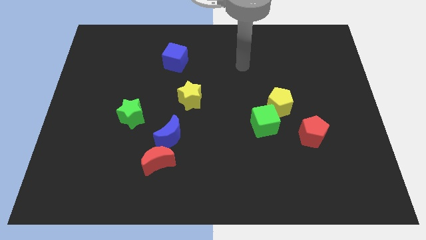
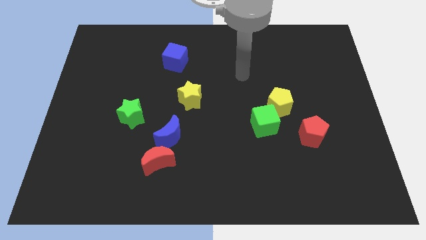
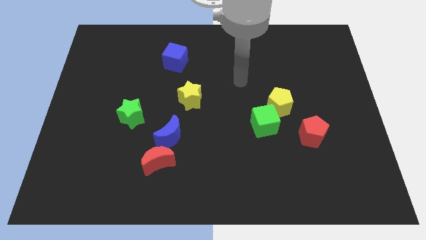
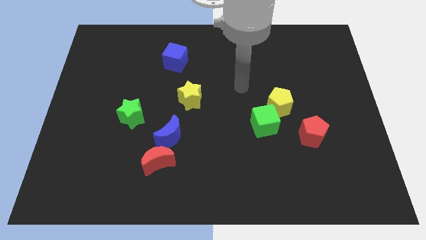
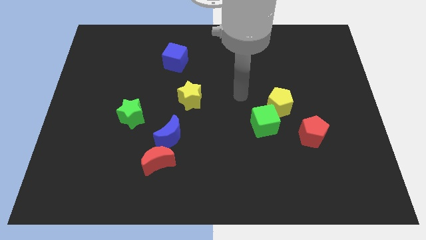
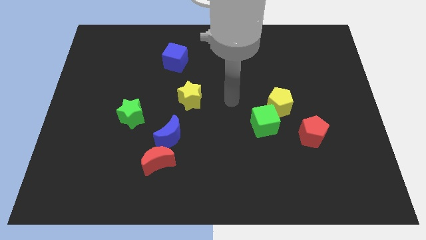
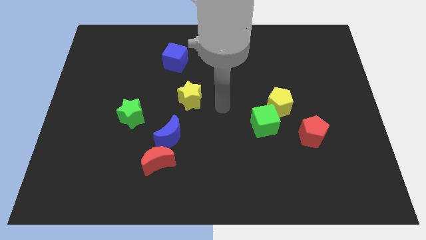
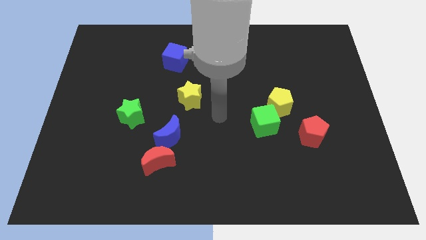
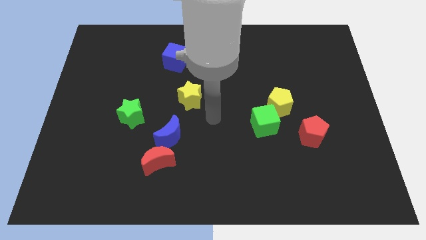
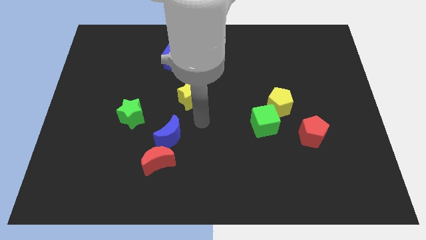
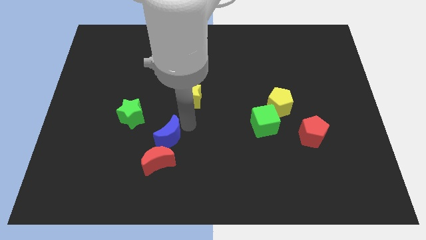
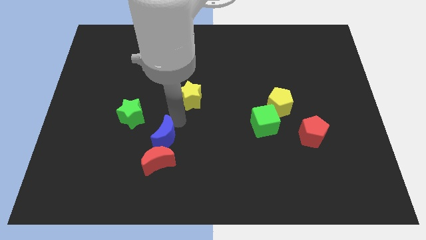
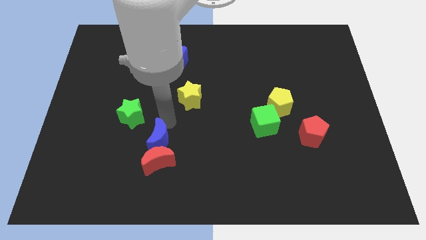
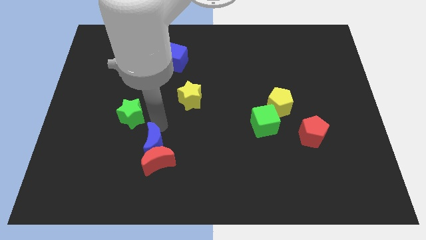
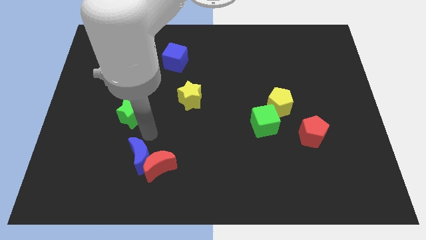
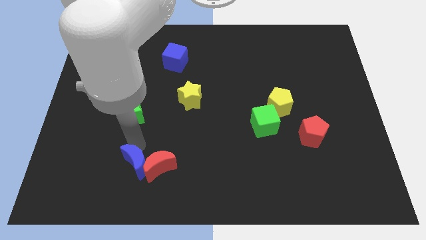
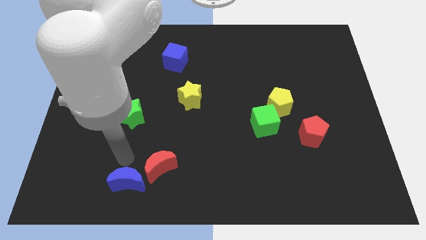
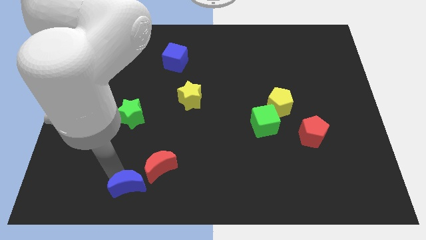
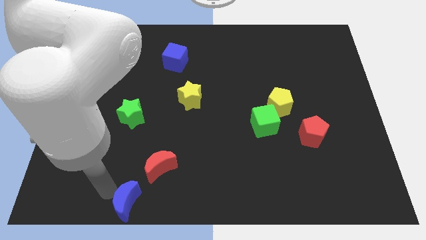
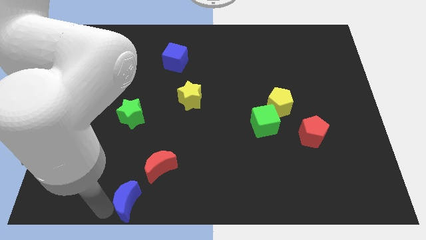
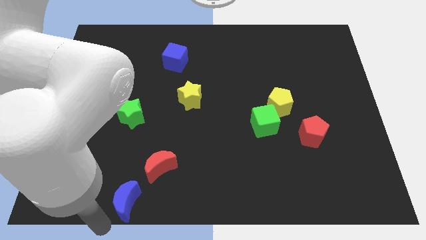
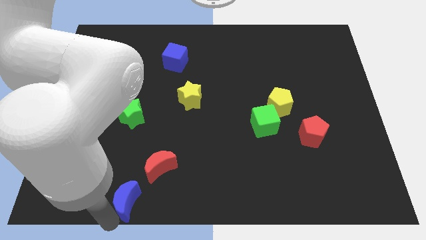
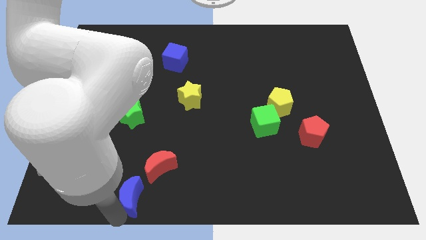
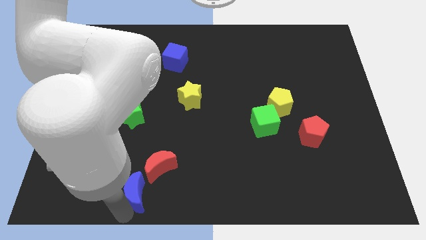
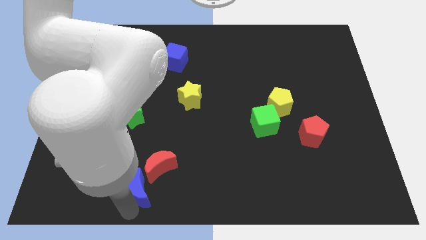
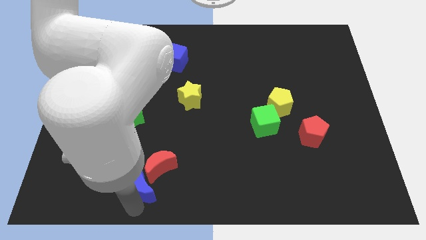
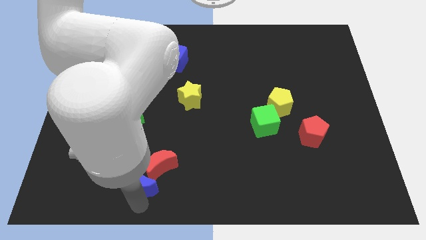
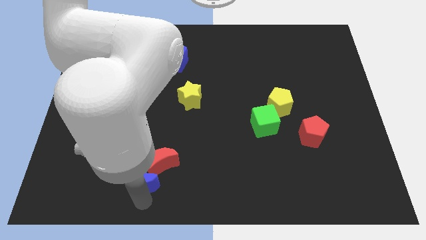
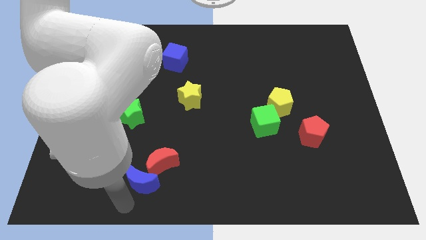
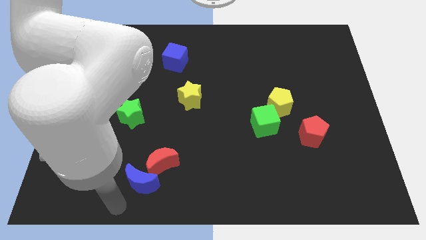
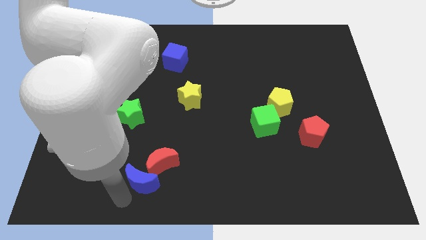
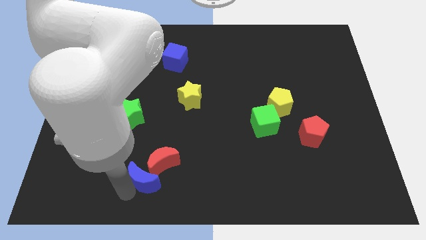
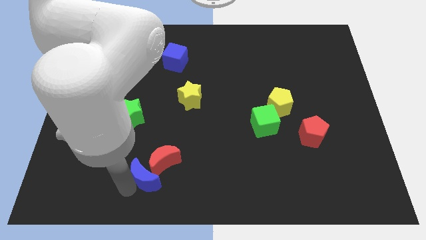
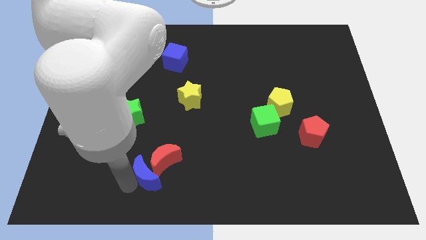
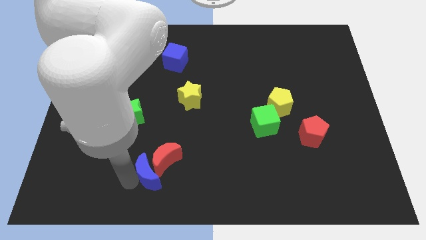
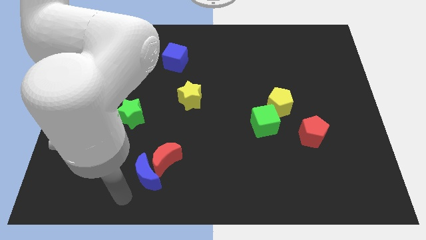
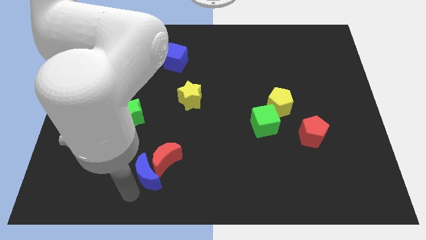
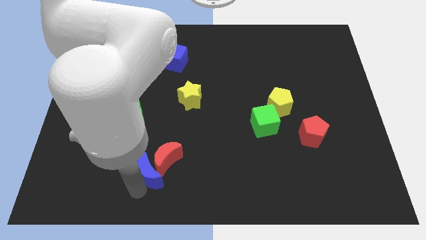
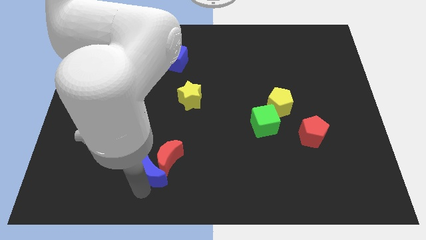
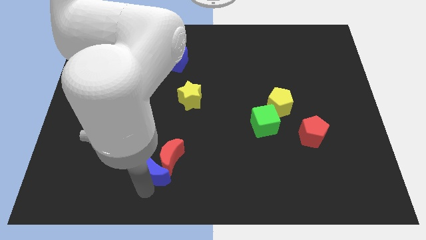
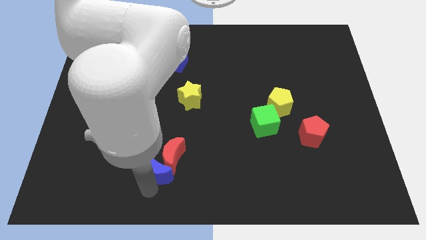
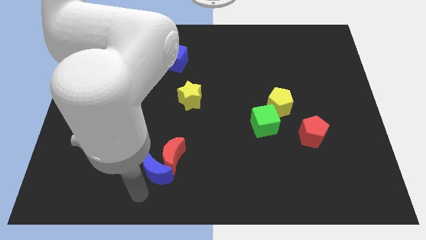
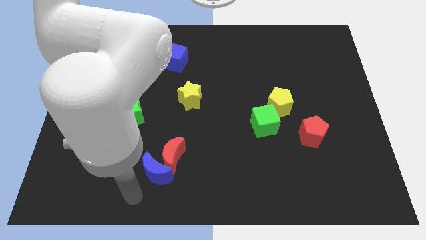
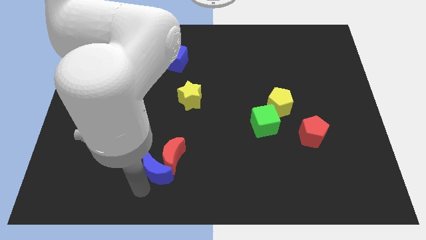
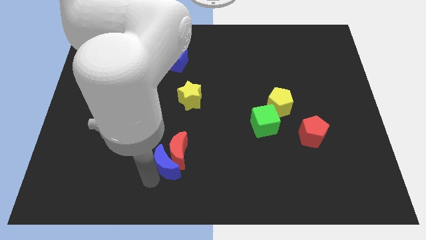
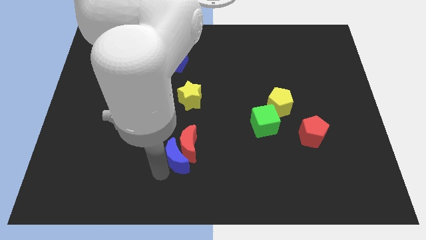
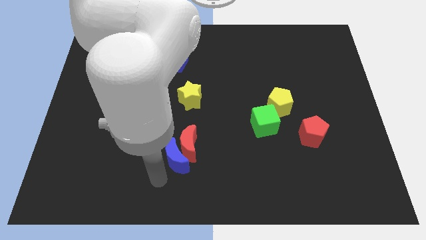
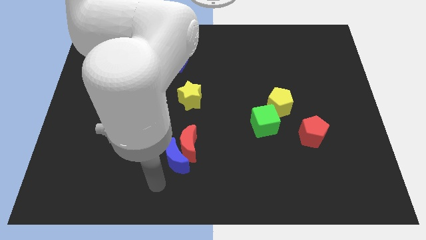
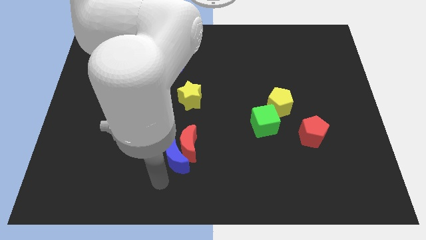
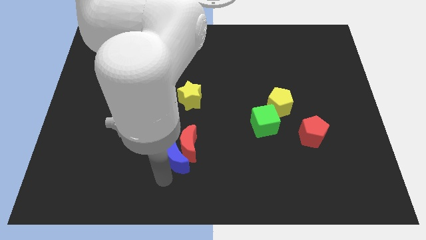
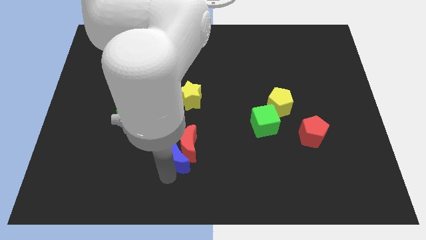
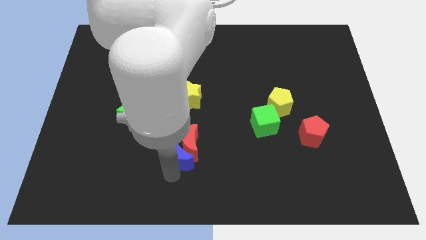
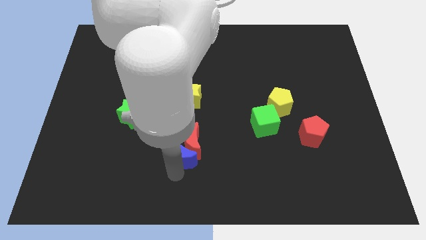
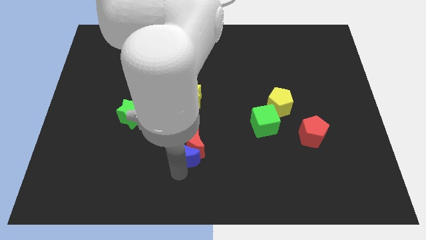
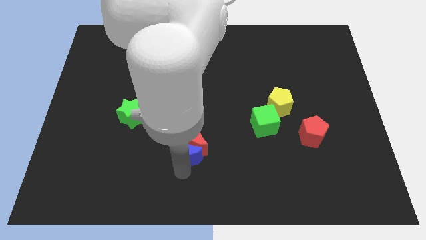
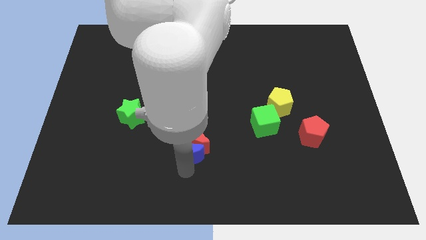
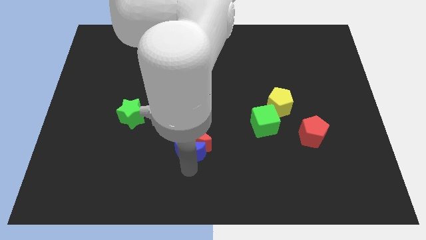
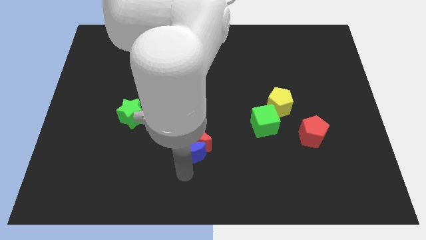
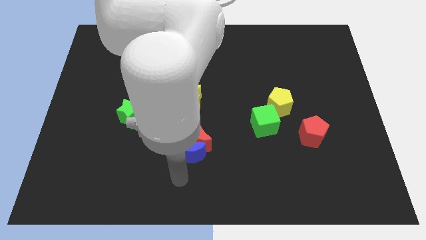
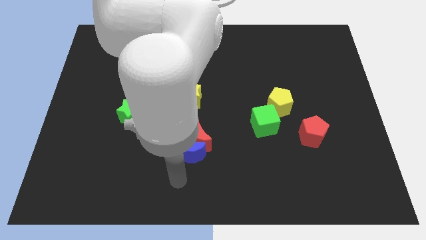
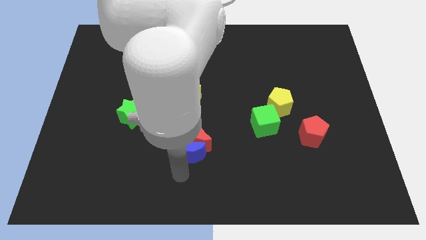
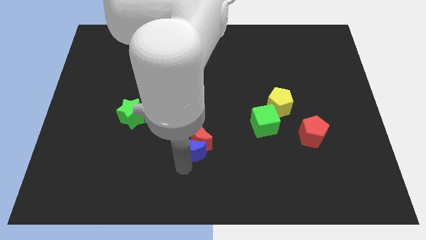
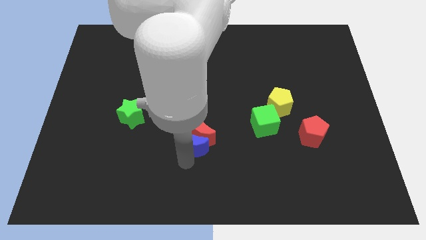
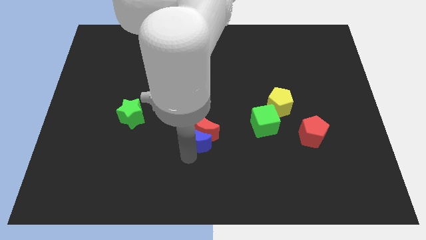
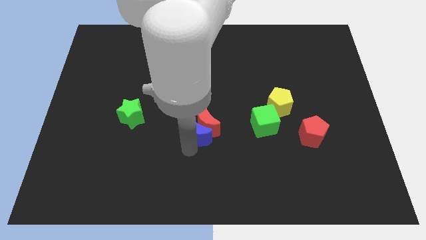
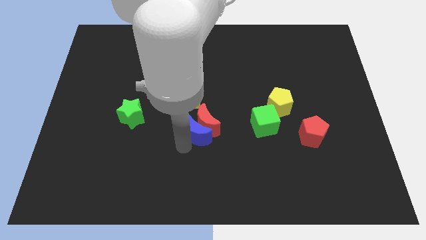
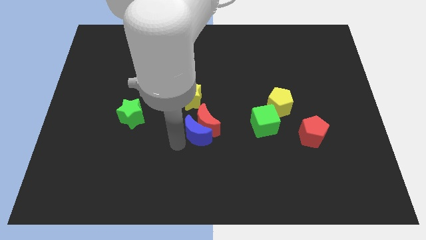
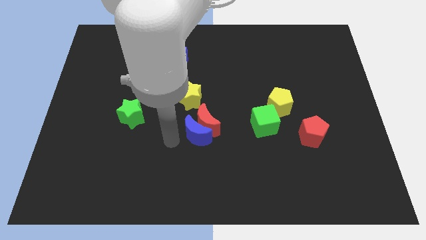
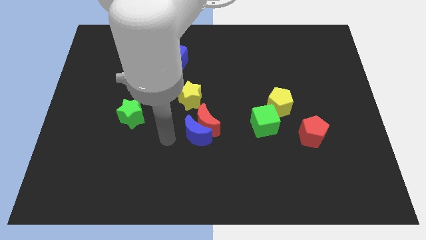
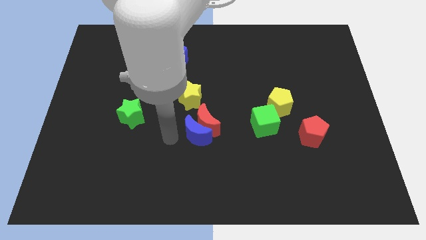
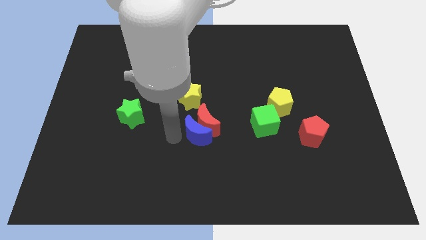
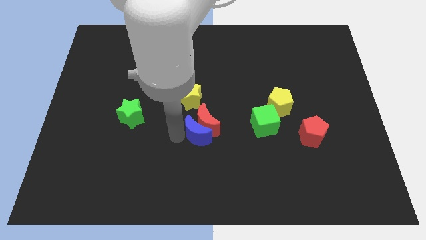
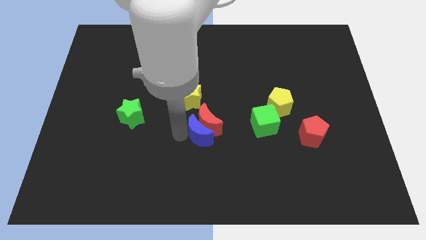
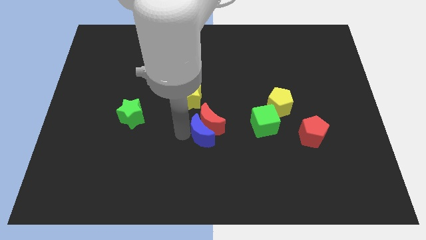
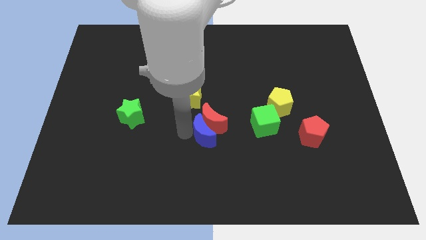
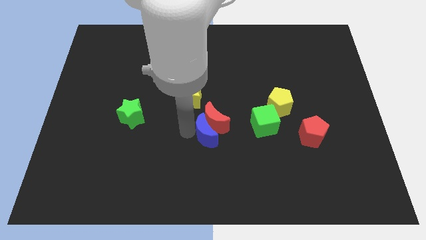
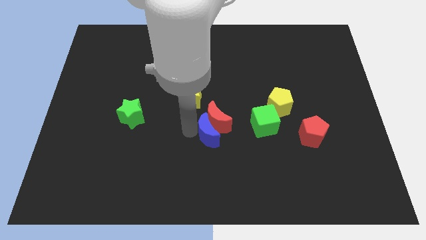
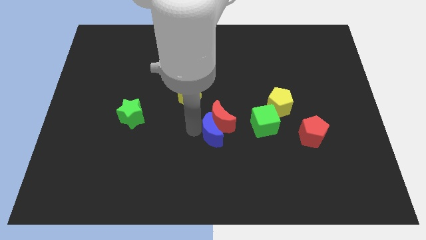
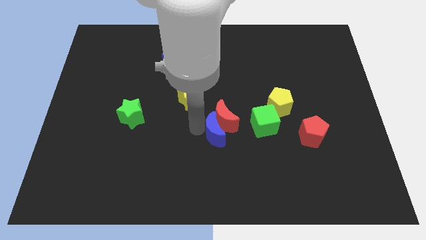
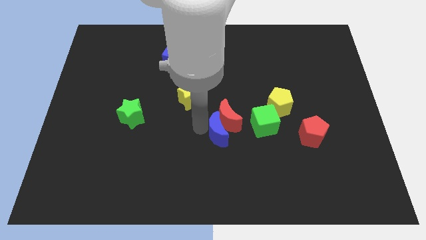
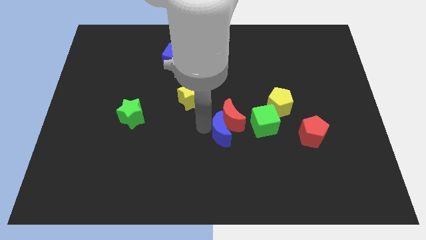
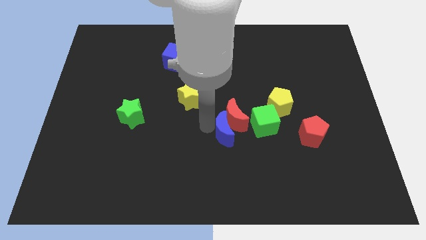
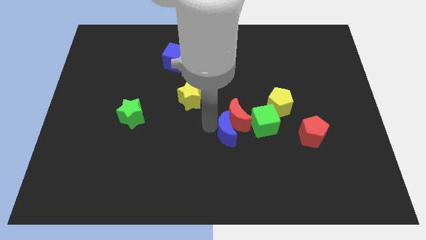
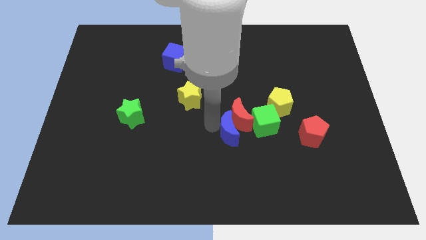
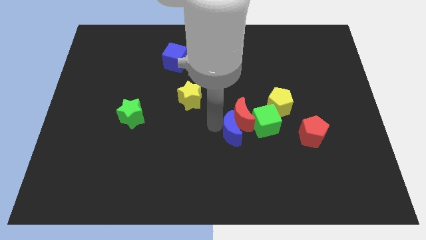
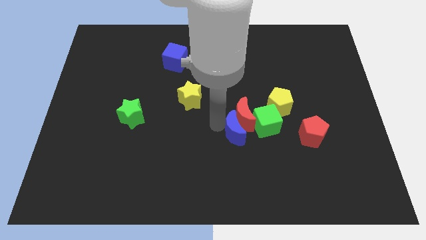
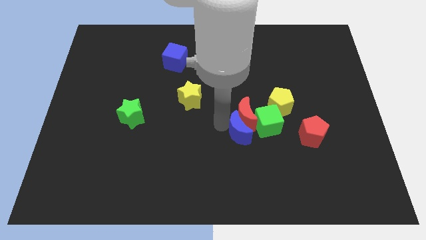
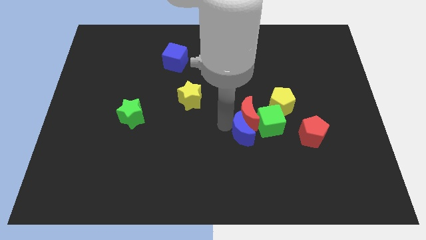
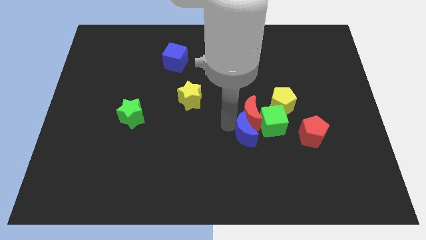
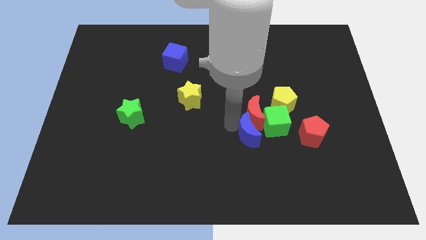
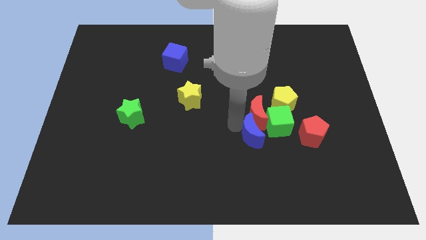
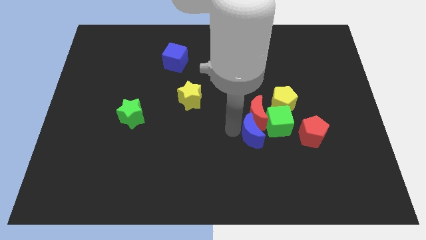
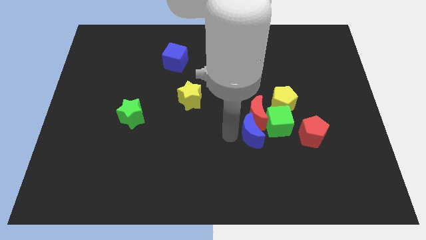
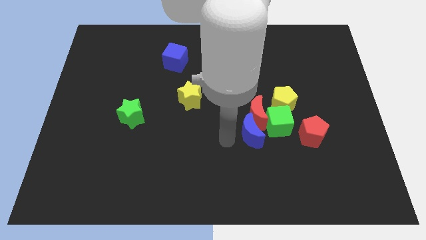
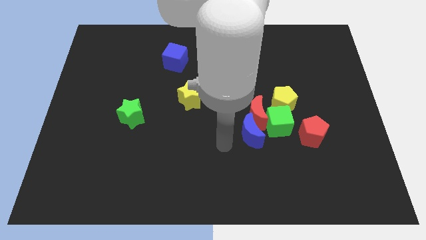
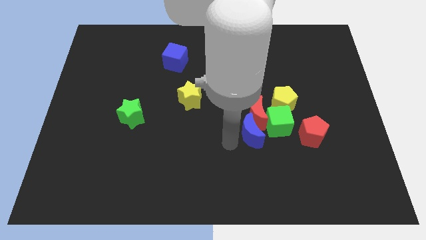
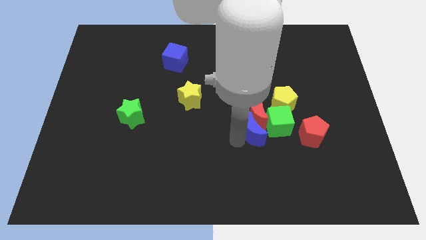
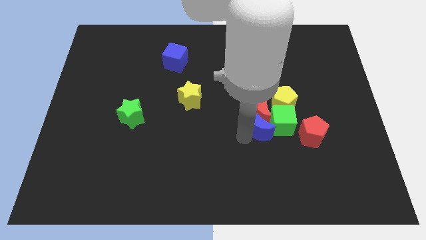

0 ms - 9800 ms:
push the blue moon to the green cube
